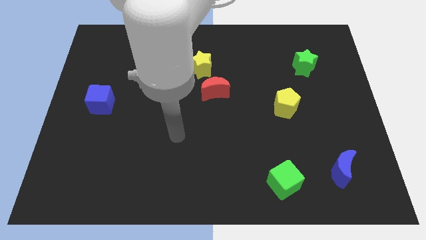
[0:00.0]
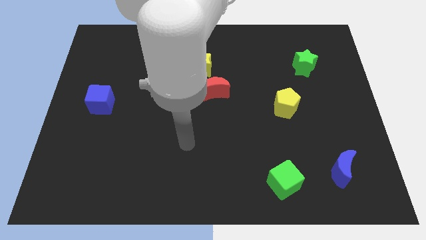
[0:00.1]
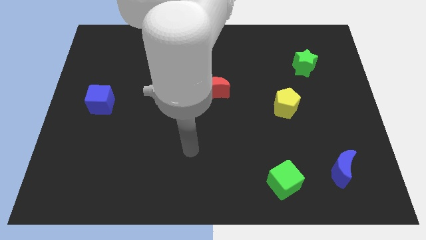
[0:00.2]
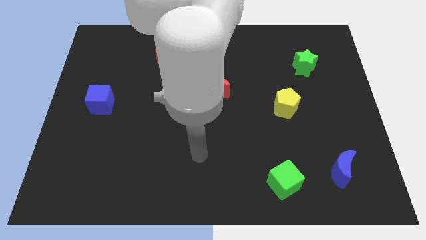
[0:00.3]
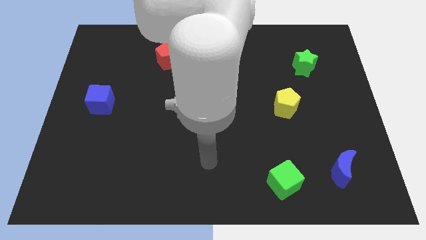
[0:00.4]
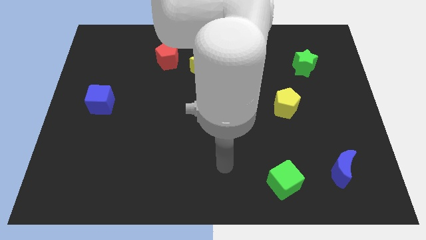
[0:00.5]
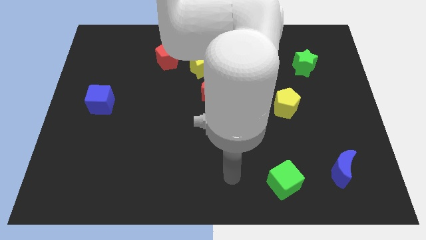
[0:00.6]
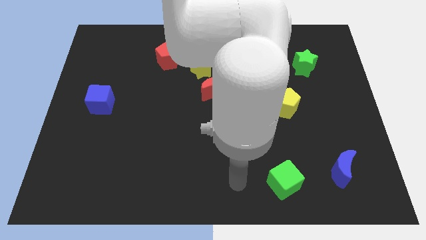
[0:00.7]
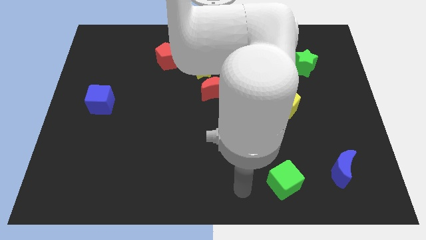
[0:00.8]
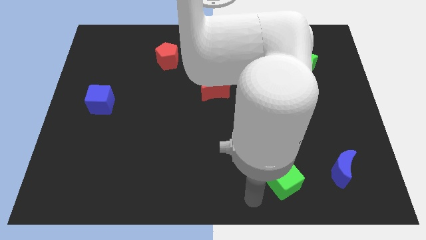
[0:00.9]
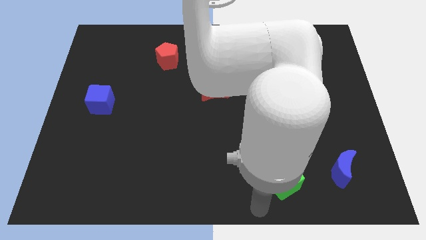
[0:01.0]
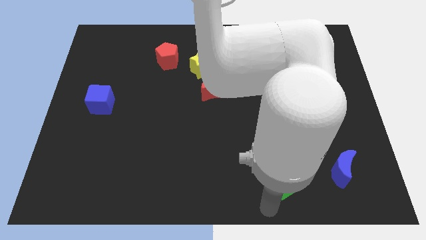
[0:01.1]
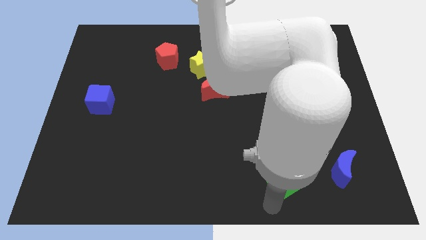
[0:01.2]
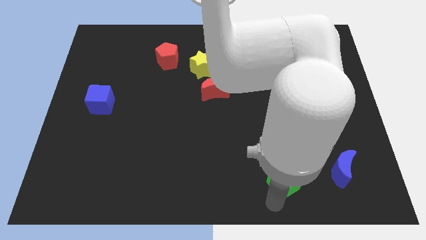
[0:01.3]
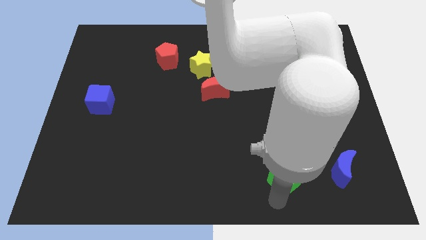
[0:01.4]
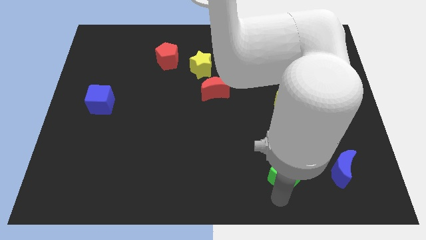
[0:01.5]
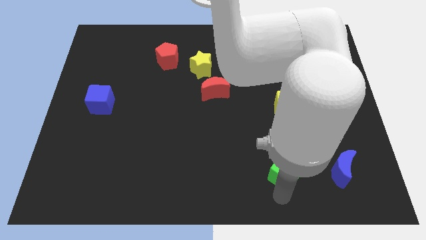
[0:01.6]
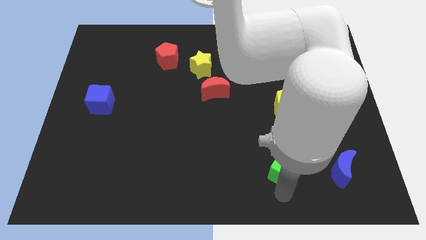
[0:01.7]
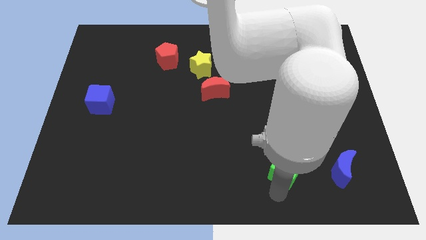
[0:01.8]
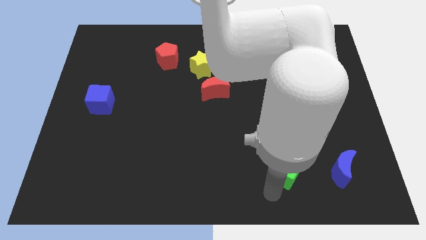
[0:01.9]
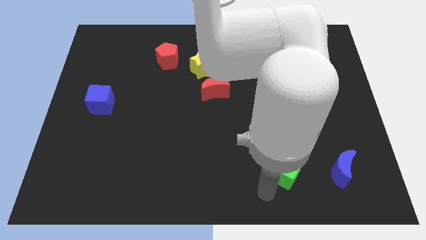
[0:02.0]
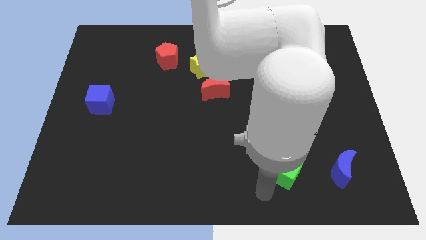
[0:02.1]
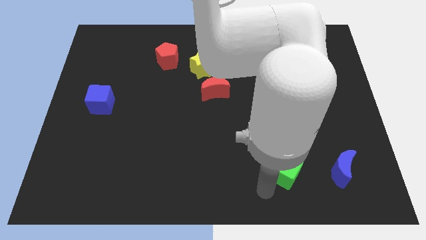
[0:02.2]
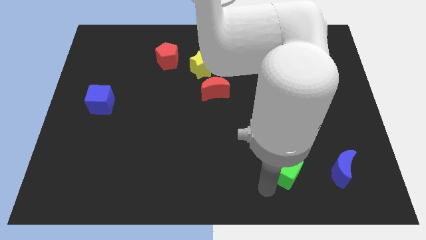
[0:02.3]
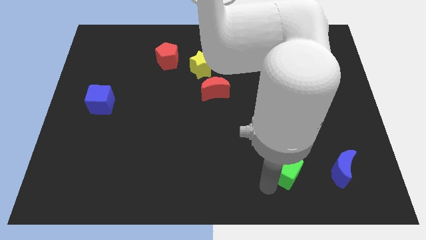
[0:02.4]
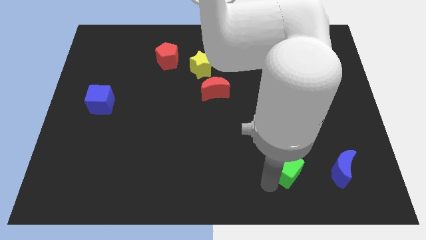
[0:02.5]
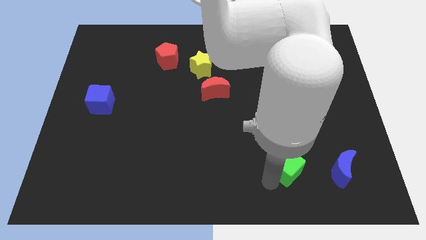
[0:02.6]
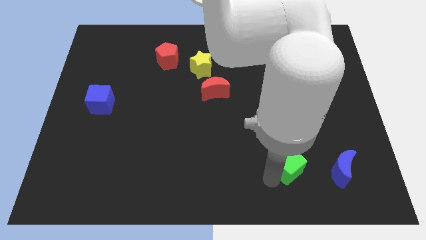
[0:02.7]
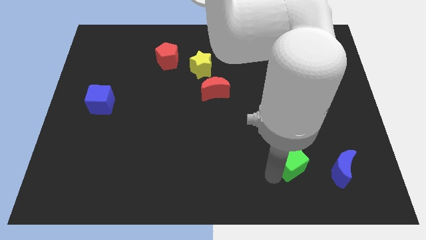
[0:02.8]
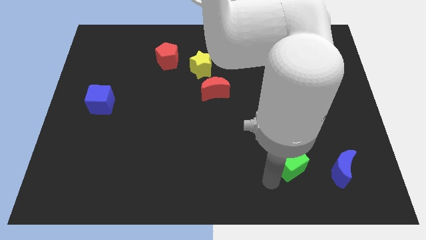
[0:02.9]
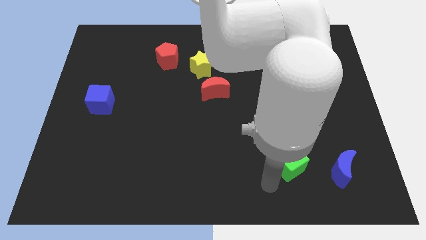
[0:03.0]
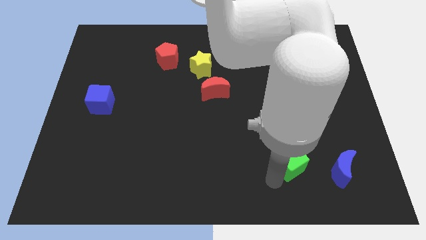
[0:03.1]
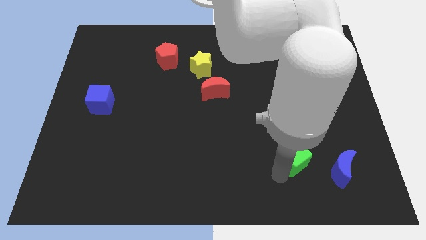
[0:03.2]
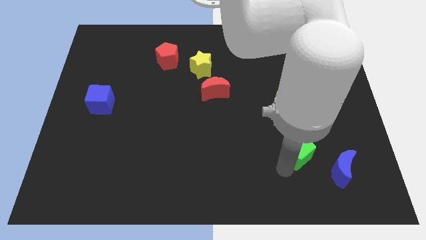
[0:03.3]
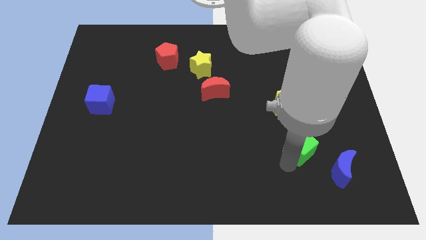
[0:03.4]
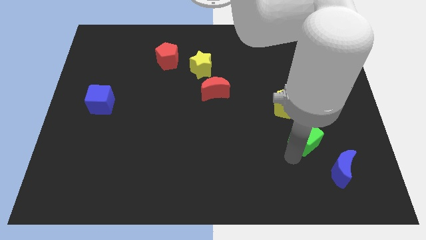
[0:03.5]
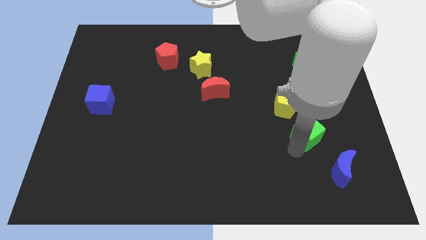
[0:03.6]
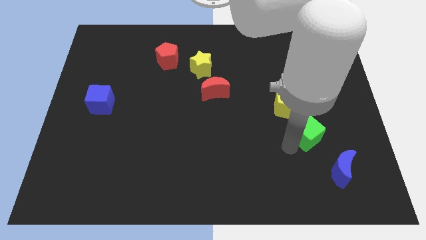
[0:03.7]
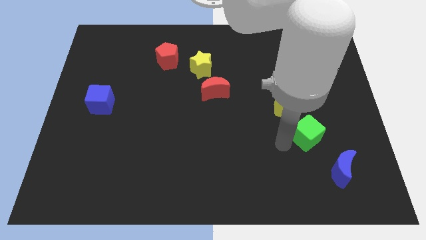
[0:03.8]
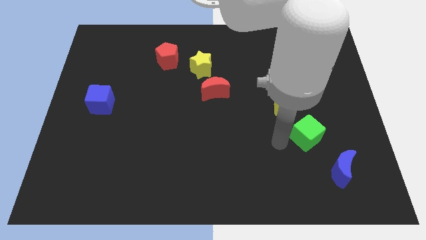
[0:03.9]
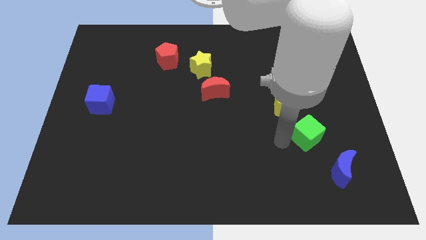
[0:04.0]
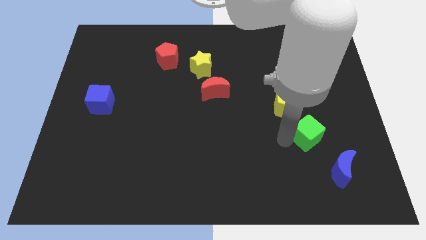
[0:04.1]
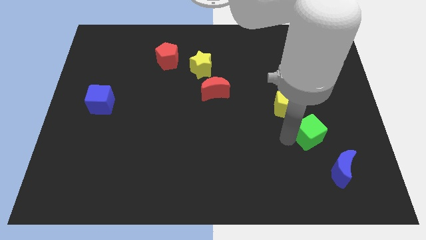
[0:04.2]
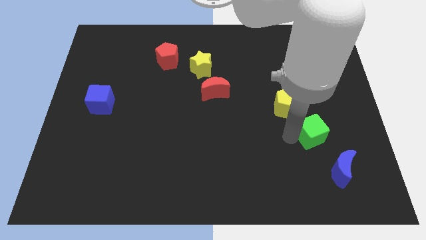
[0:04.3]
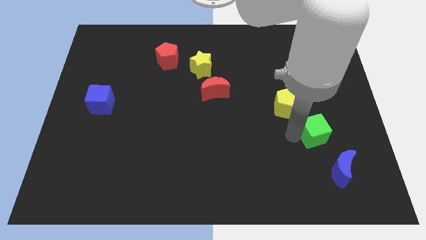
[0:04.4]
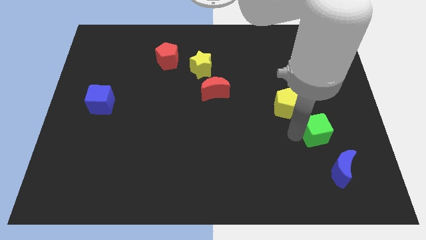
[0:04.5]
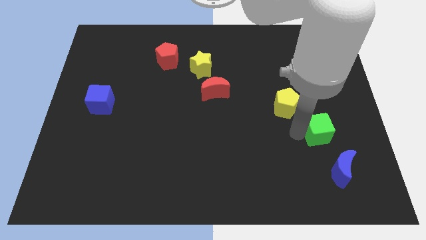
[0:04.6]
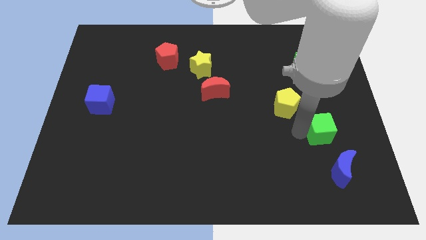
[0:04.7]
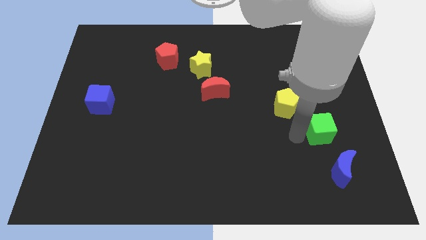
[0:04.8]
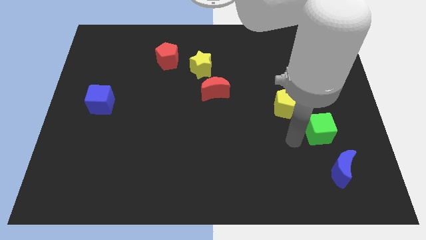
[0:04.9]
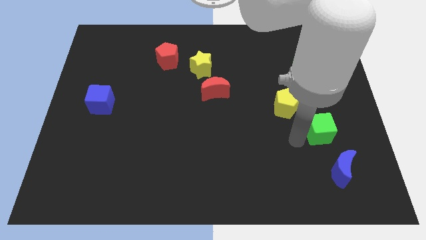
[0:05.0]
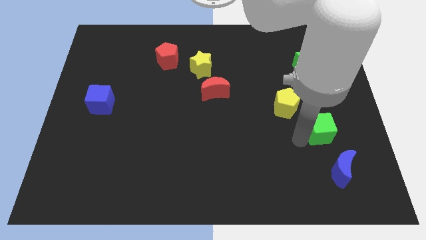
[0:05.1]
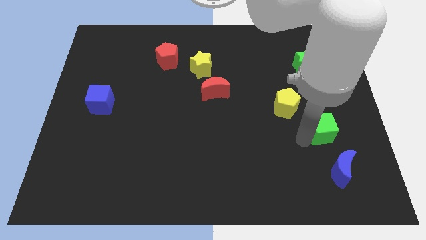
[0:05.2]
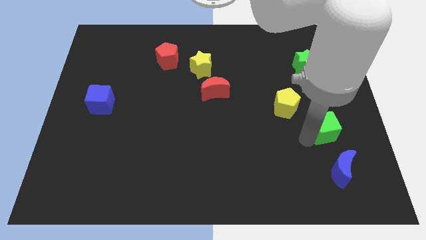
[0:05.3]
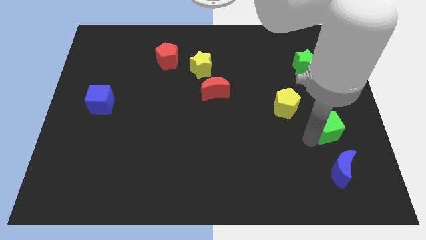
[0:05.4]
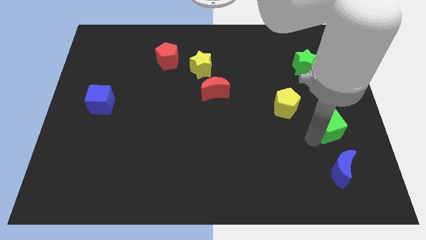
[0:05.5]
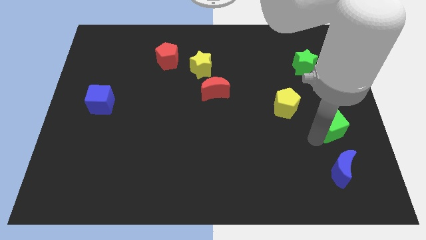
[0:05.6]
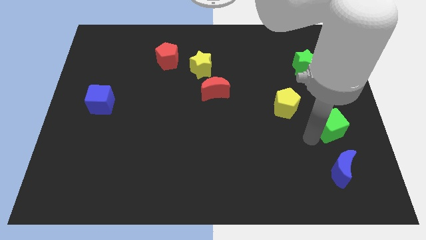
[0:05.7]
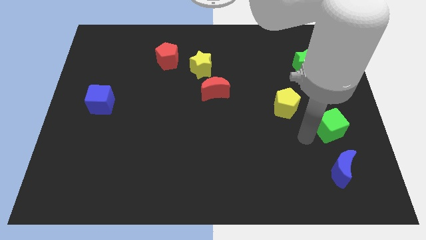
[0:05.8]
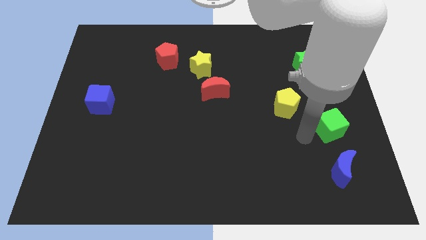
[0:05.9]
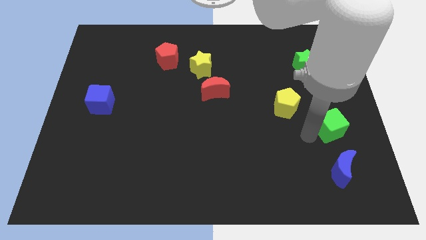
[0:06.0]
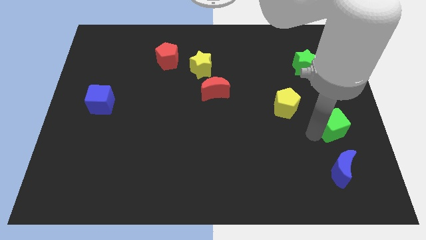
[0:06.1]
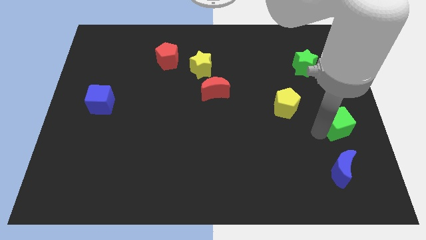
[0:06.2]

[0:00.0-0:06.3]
slide the green cube to the right side of the board
